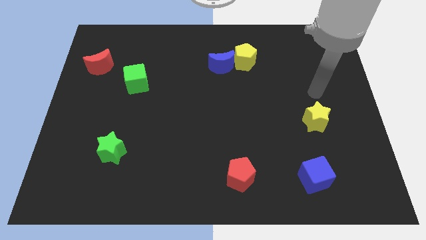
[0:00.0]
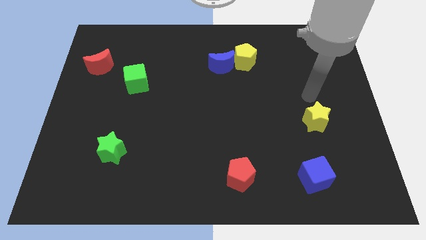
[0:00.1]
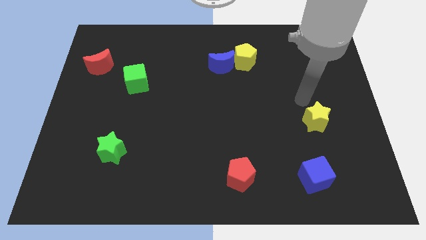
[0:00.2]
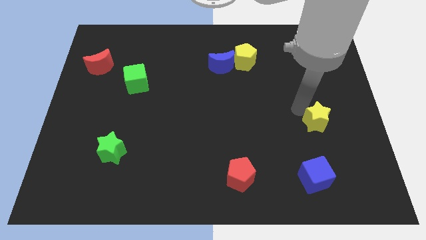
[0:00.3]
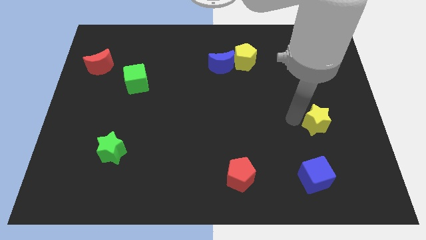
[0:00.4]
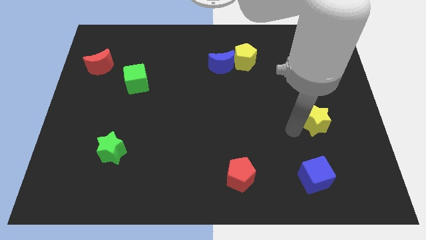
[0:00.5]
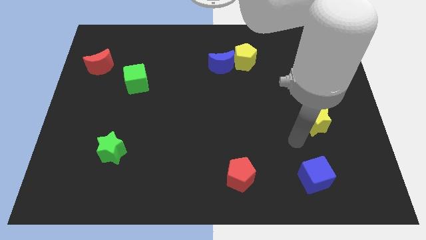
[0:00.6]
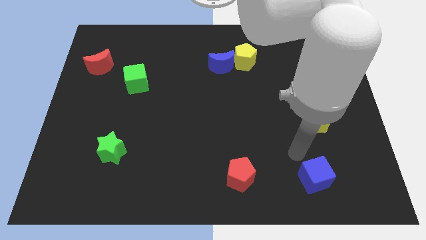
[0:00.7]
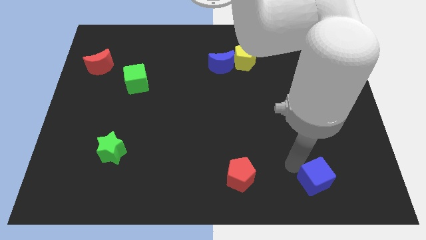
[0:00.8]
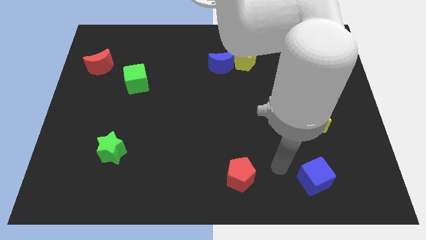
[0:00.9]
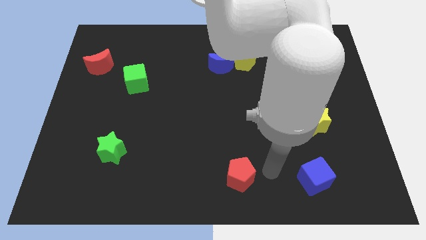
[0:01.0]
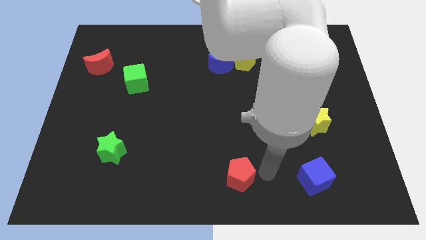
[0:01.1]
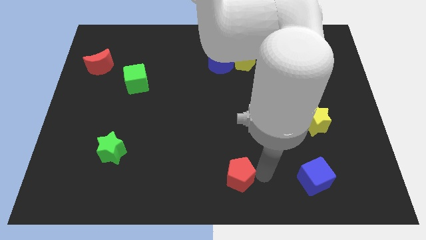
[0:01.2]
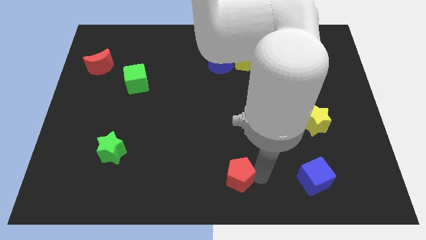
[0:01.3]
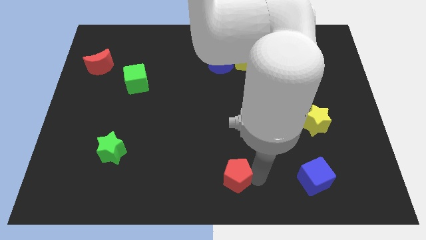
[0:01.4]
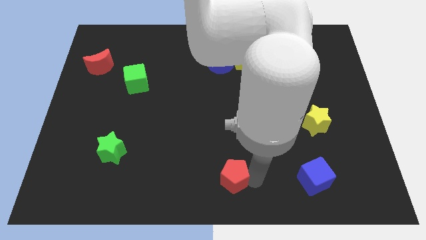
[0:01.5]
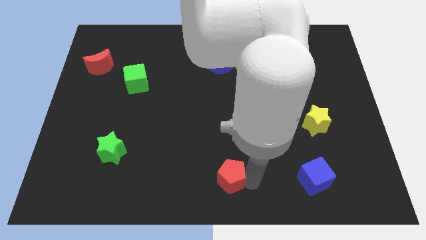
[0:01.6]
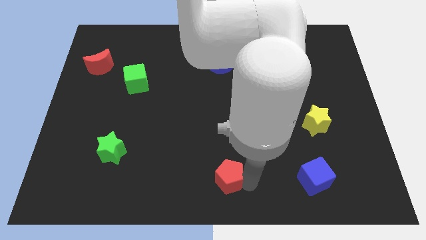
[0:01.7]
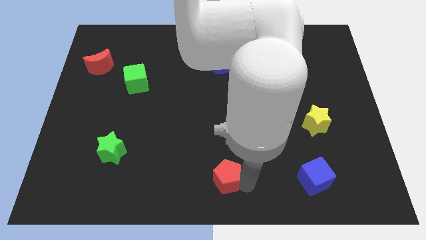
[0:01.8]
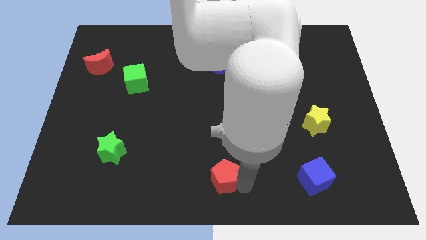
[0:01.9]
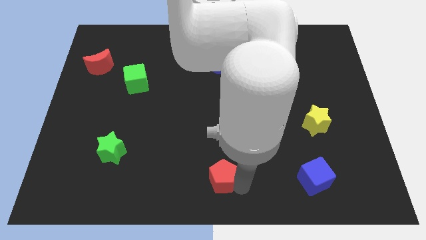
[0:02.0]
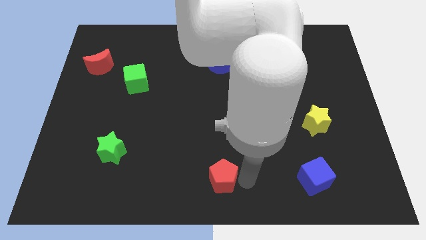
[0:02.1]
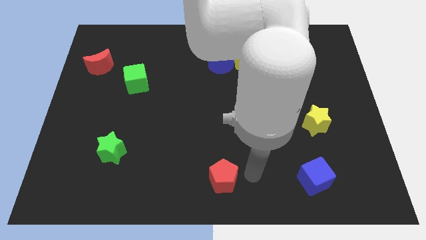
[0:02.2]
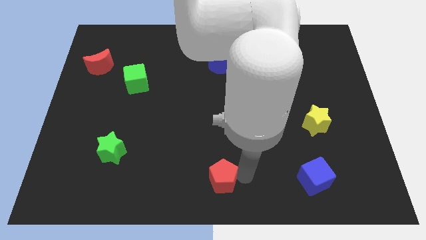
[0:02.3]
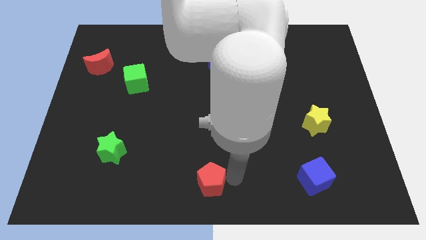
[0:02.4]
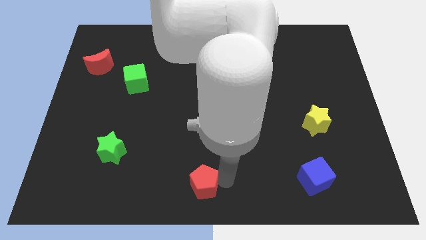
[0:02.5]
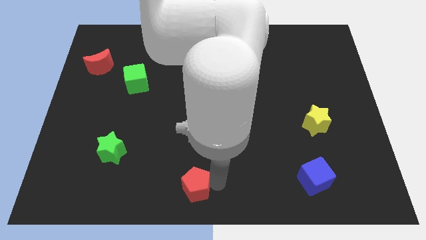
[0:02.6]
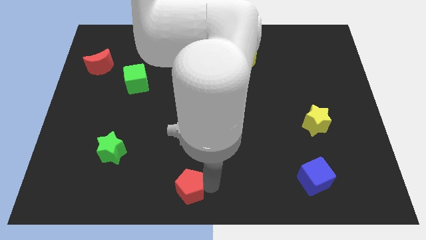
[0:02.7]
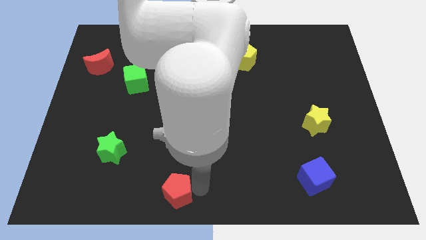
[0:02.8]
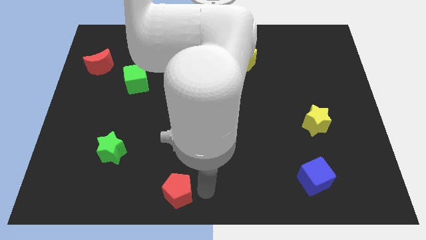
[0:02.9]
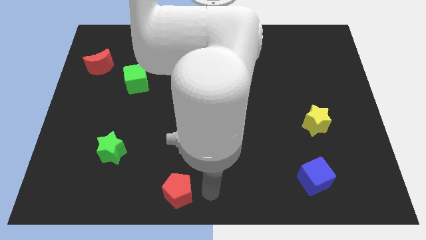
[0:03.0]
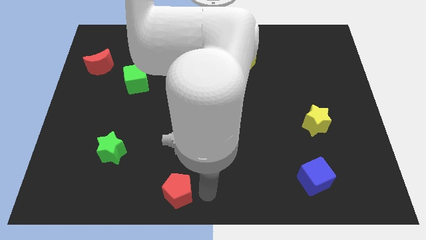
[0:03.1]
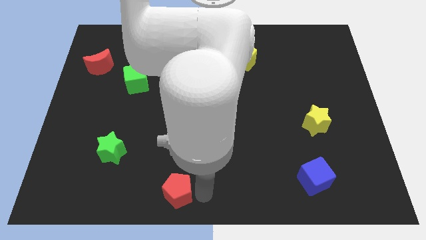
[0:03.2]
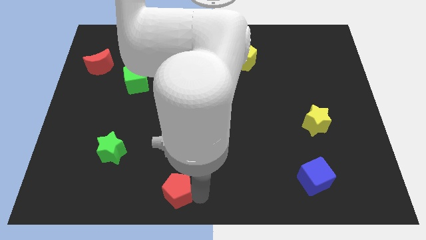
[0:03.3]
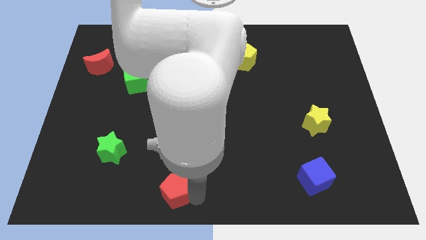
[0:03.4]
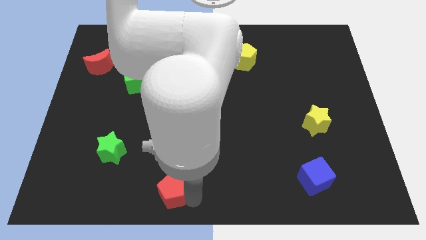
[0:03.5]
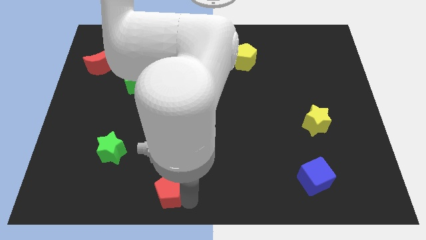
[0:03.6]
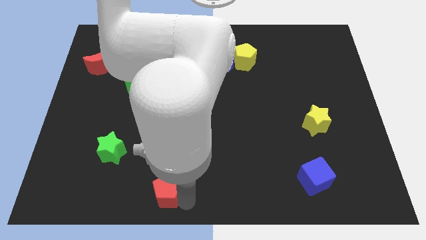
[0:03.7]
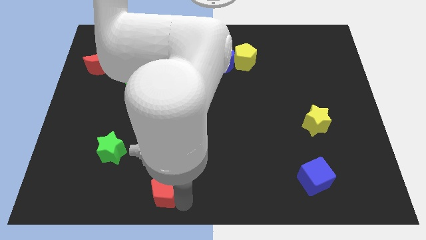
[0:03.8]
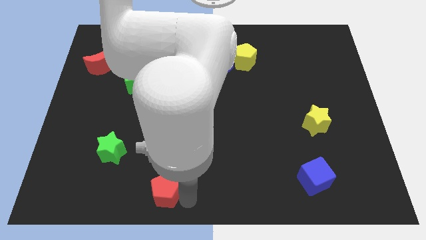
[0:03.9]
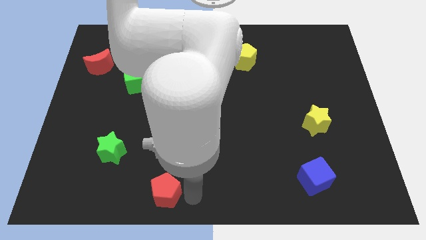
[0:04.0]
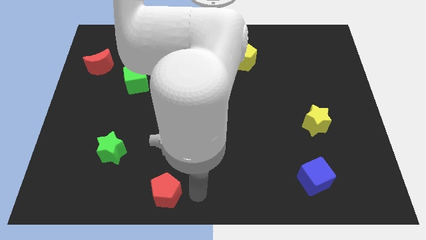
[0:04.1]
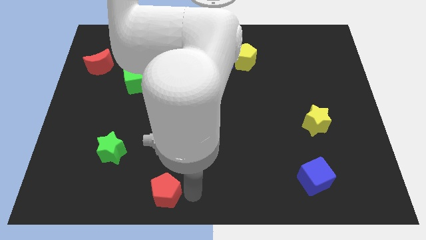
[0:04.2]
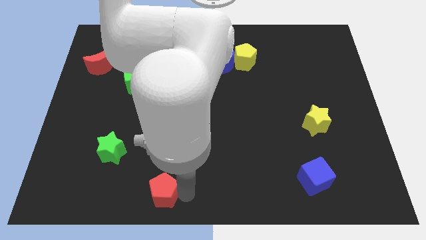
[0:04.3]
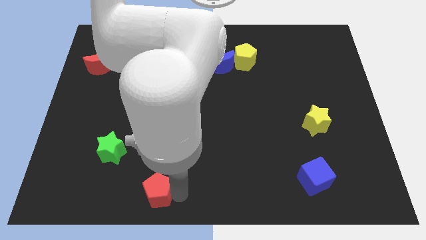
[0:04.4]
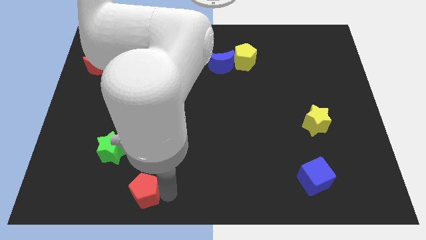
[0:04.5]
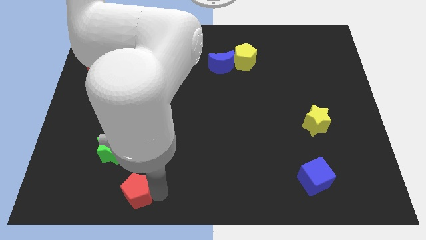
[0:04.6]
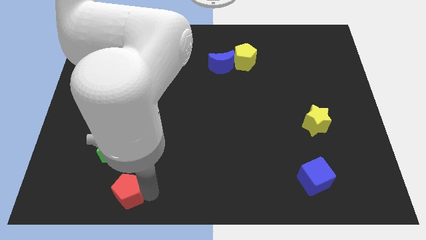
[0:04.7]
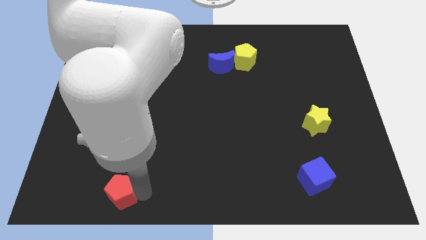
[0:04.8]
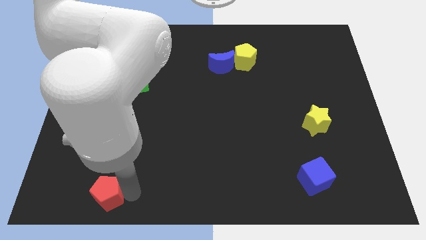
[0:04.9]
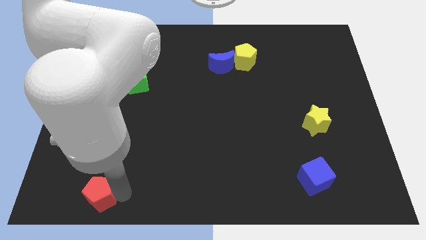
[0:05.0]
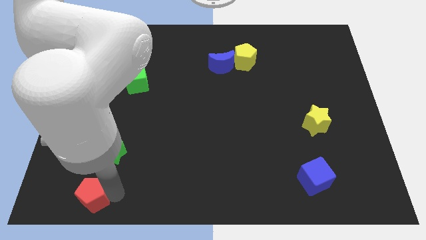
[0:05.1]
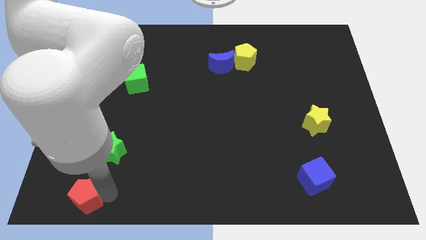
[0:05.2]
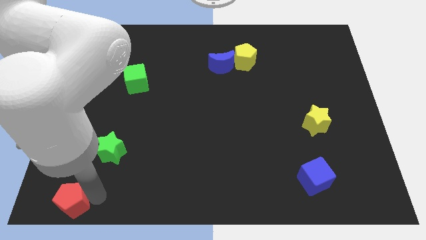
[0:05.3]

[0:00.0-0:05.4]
put the red pentagon to the bottom left corner
